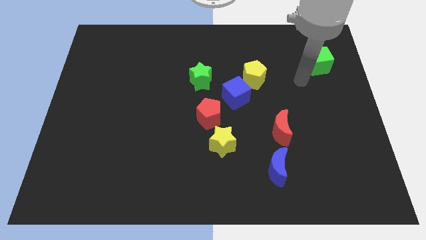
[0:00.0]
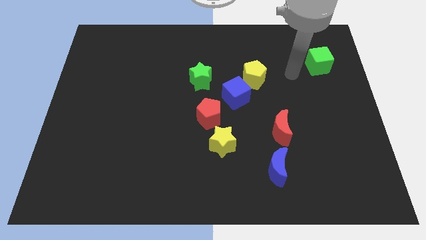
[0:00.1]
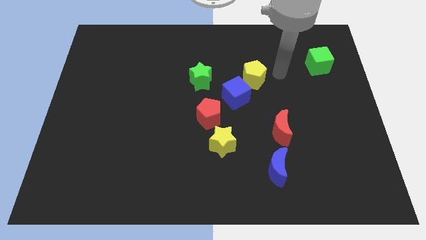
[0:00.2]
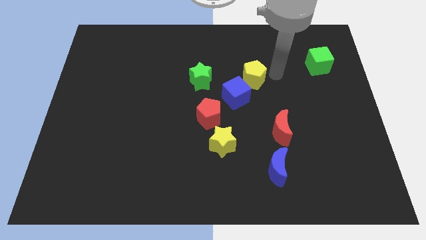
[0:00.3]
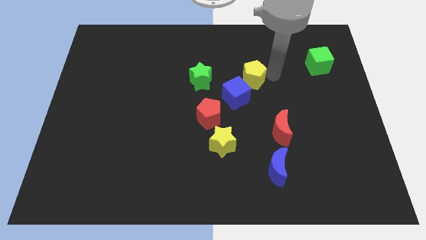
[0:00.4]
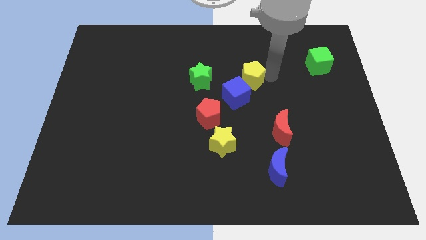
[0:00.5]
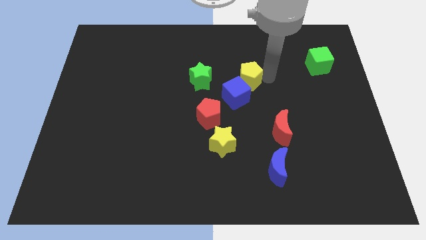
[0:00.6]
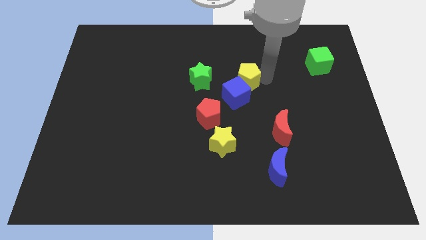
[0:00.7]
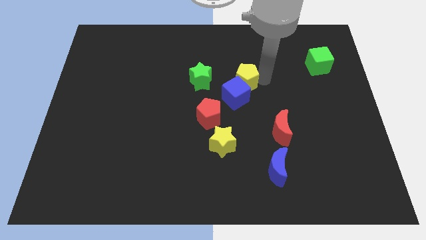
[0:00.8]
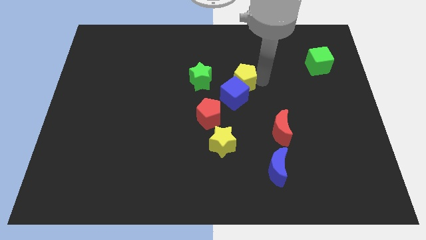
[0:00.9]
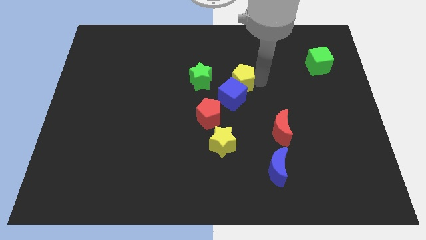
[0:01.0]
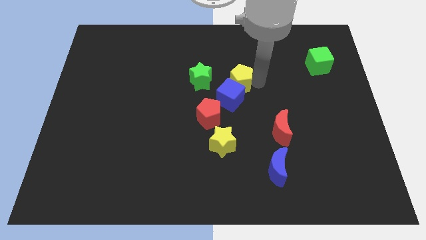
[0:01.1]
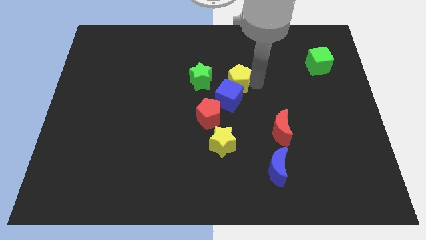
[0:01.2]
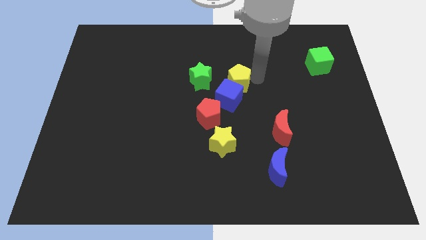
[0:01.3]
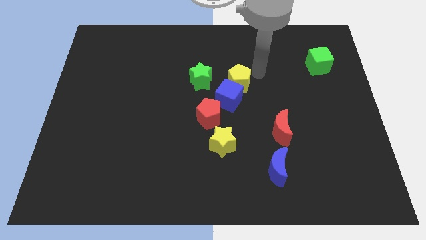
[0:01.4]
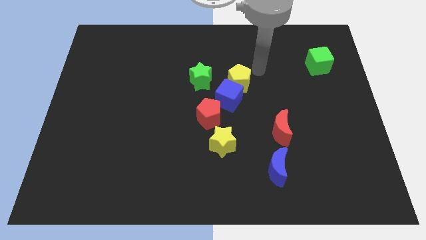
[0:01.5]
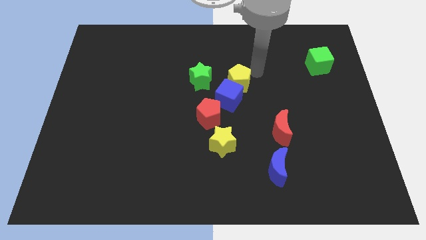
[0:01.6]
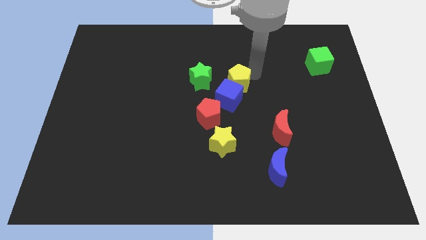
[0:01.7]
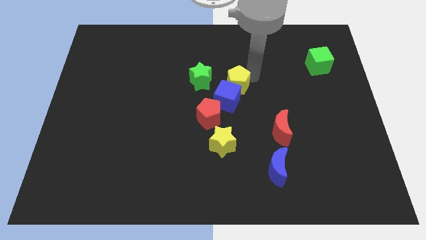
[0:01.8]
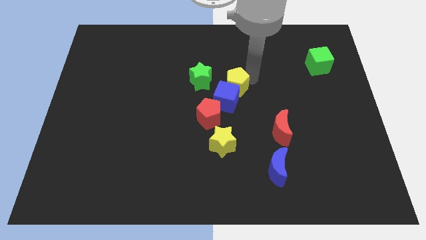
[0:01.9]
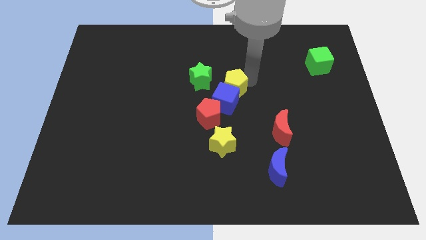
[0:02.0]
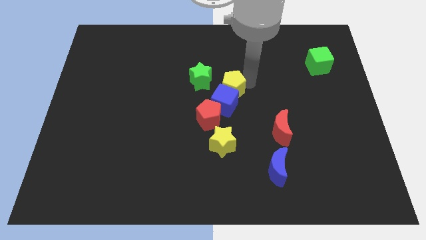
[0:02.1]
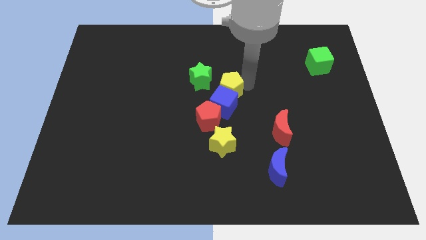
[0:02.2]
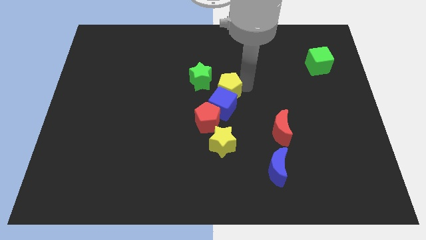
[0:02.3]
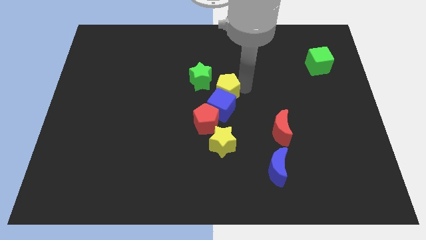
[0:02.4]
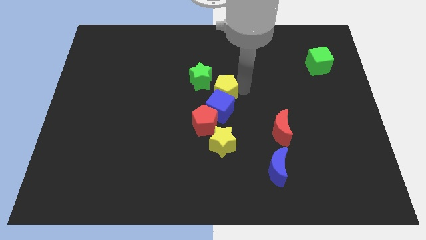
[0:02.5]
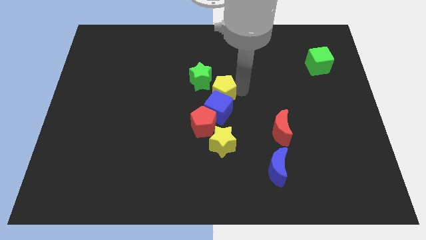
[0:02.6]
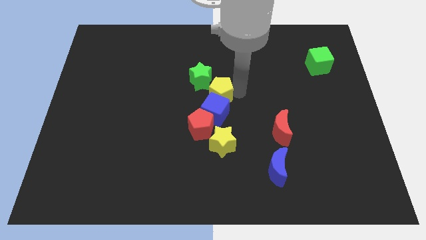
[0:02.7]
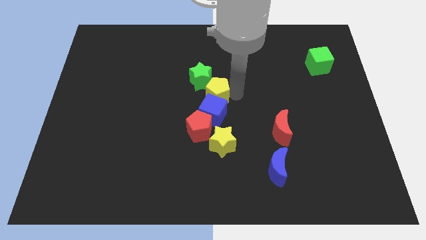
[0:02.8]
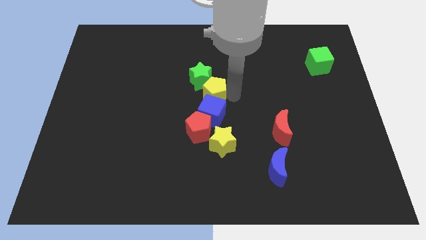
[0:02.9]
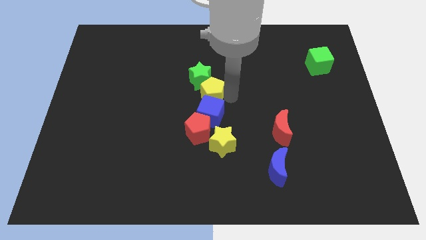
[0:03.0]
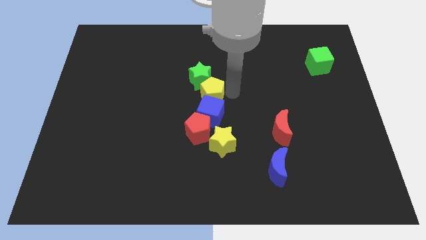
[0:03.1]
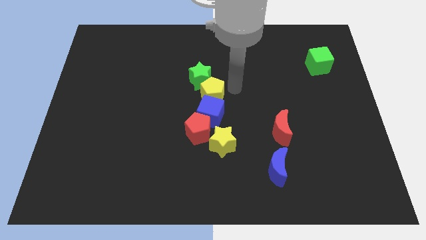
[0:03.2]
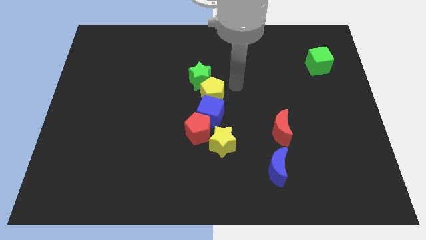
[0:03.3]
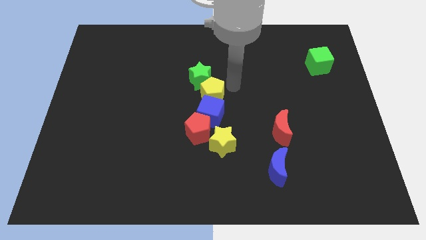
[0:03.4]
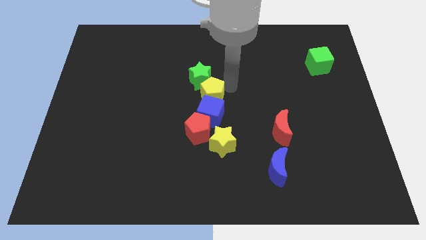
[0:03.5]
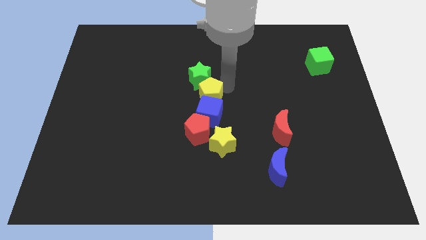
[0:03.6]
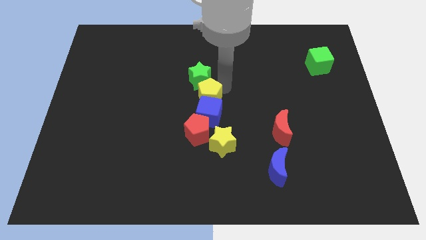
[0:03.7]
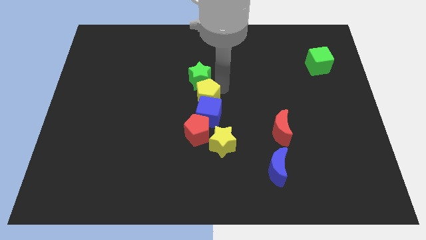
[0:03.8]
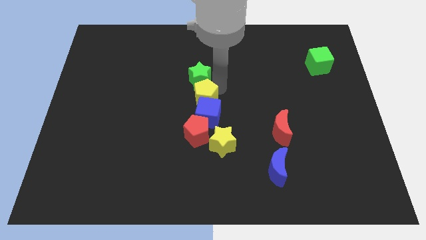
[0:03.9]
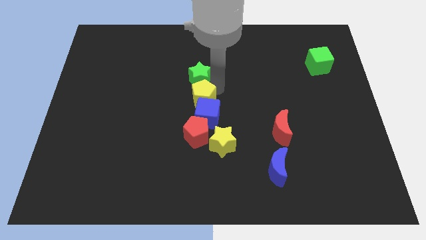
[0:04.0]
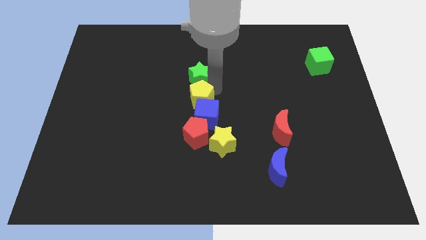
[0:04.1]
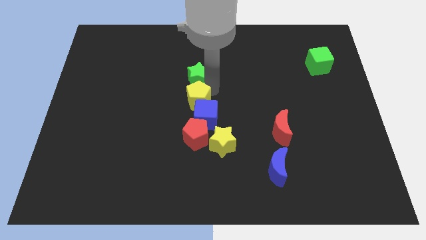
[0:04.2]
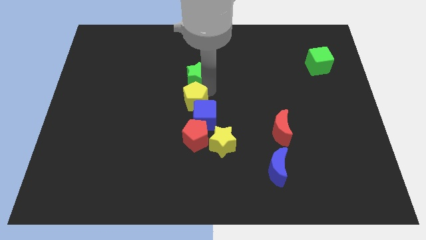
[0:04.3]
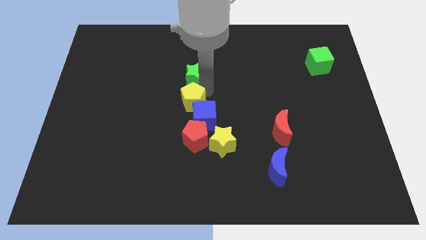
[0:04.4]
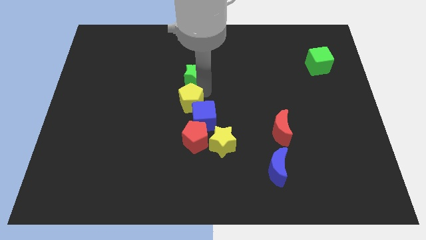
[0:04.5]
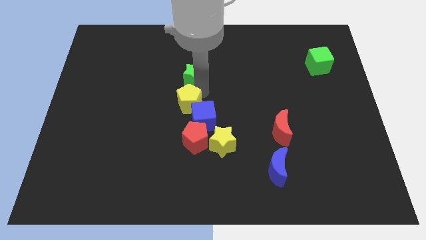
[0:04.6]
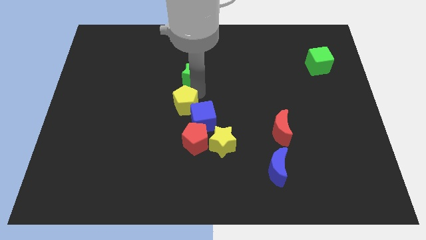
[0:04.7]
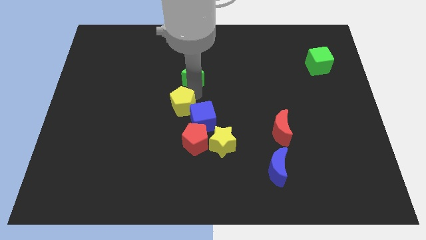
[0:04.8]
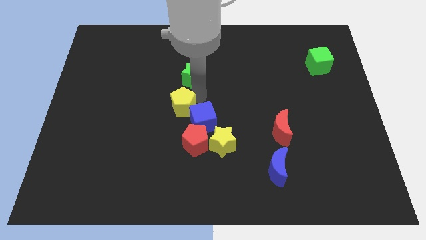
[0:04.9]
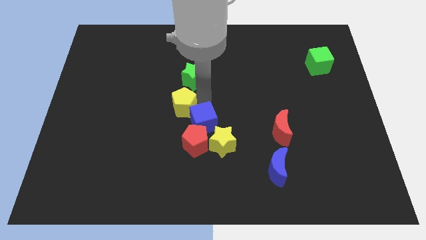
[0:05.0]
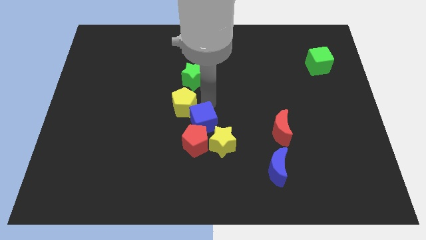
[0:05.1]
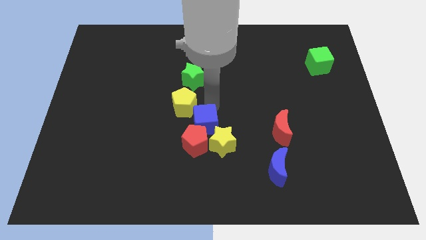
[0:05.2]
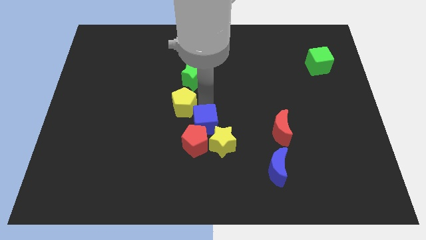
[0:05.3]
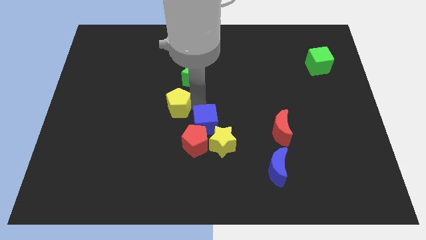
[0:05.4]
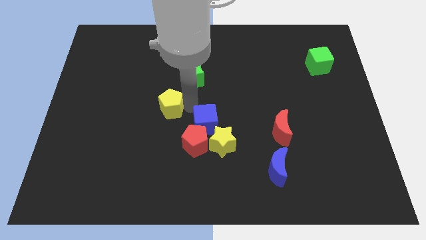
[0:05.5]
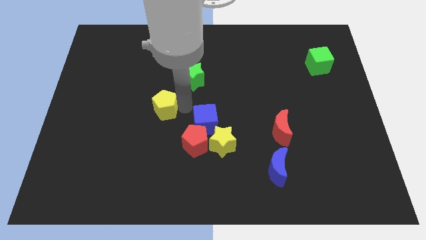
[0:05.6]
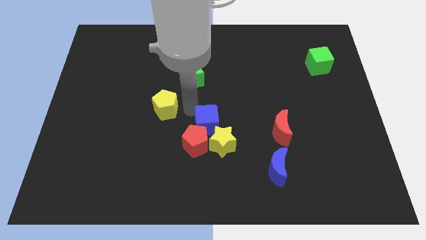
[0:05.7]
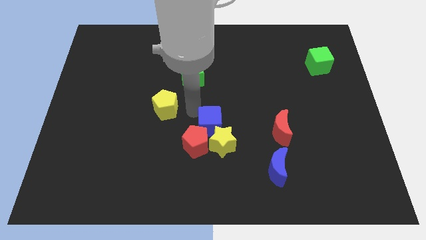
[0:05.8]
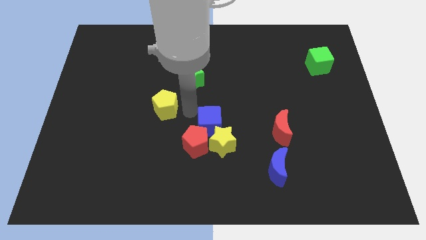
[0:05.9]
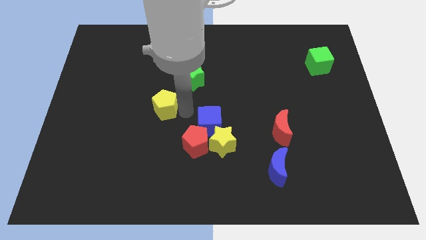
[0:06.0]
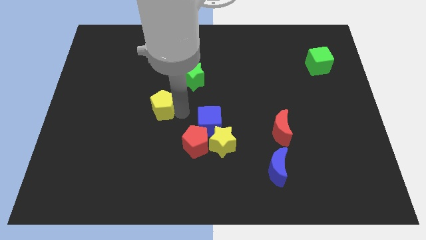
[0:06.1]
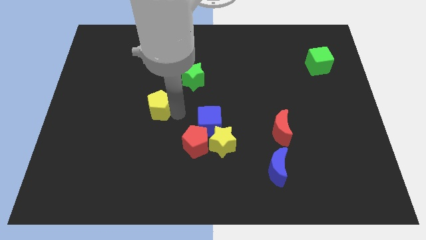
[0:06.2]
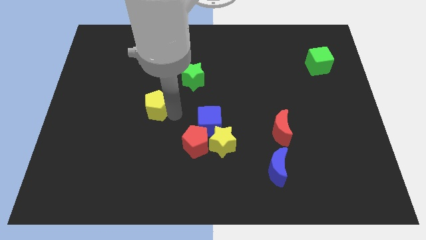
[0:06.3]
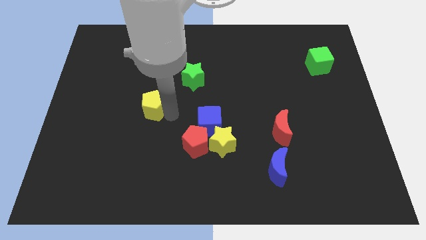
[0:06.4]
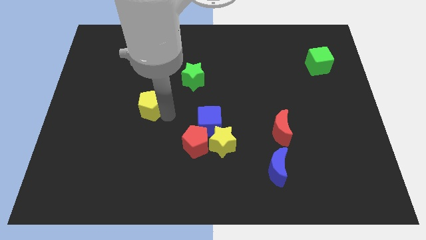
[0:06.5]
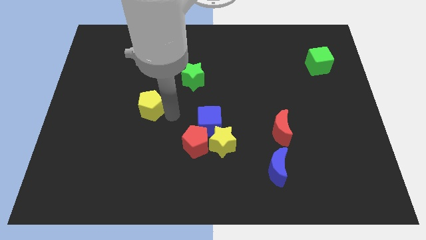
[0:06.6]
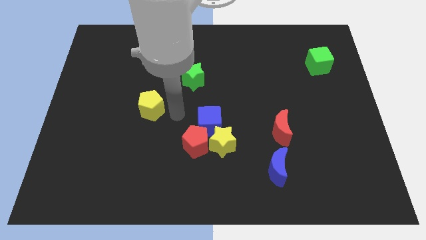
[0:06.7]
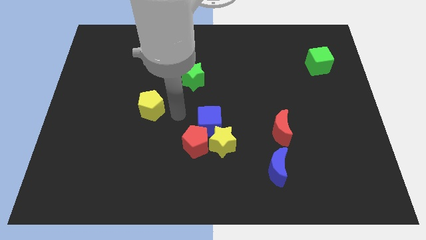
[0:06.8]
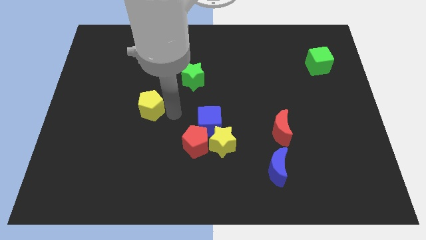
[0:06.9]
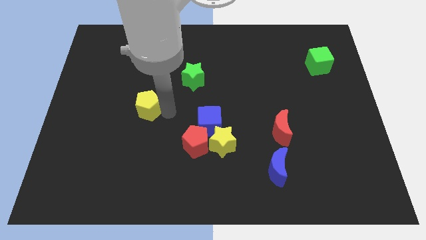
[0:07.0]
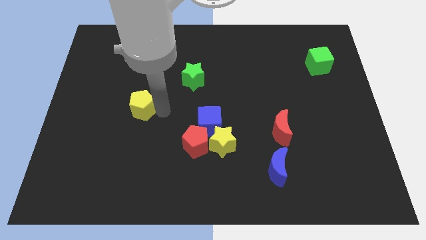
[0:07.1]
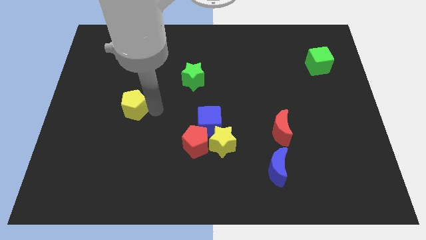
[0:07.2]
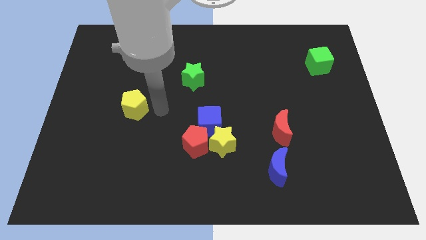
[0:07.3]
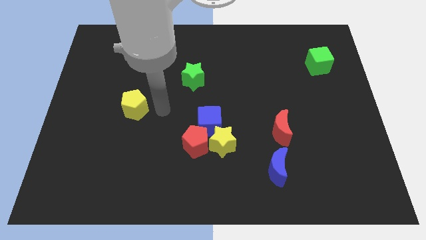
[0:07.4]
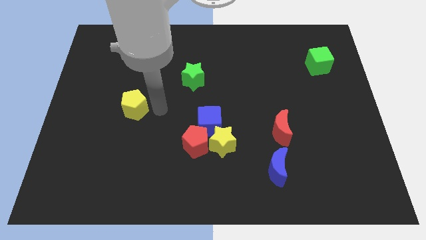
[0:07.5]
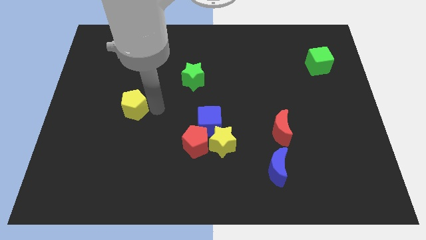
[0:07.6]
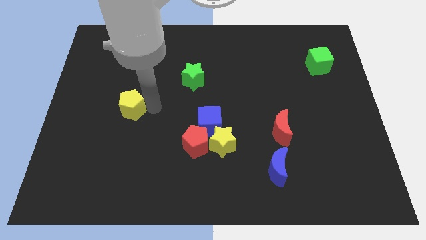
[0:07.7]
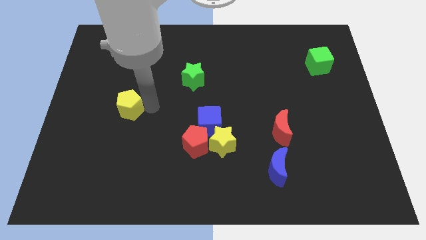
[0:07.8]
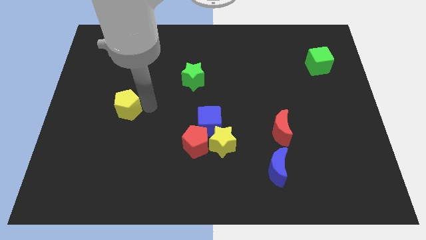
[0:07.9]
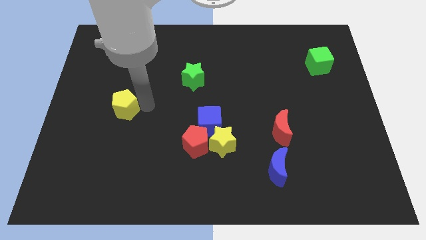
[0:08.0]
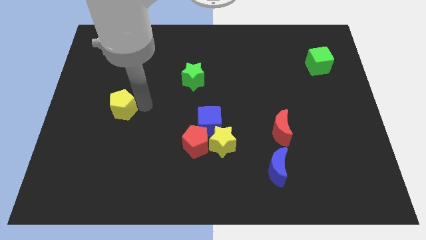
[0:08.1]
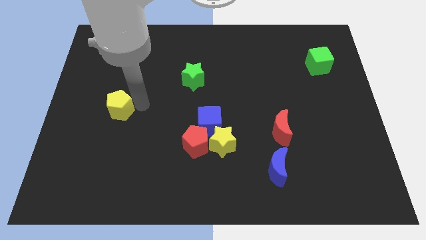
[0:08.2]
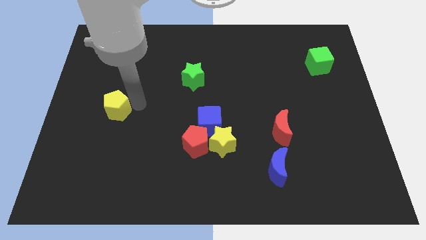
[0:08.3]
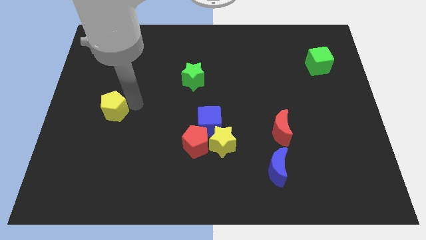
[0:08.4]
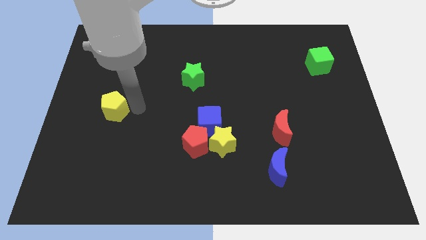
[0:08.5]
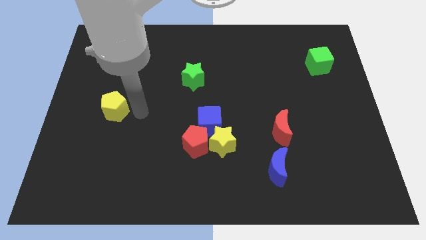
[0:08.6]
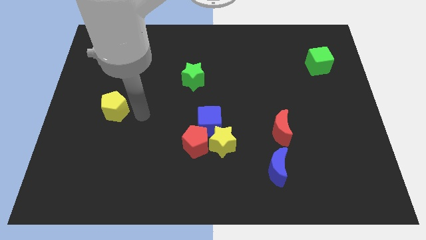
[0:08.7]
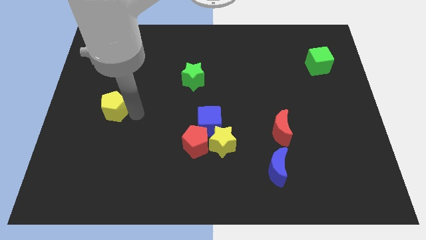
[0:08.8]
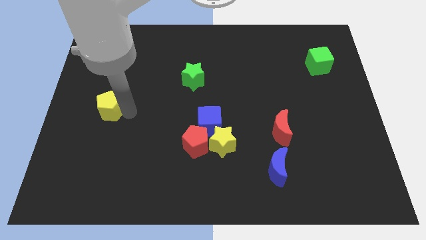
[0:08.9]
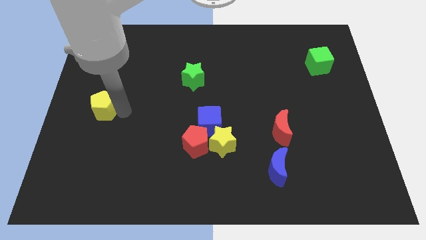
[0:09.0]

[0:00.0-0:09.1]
move the yellow pentagon to the left side of the board
